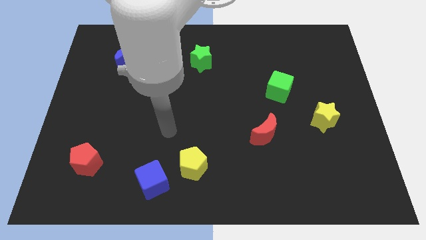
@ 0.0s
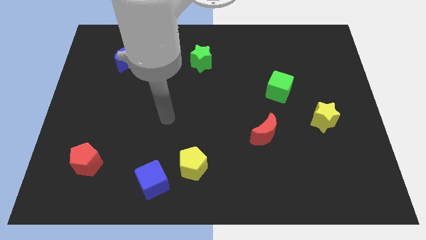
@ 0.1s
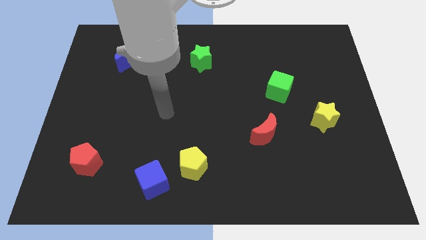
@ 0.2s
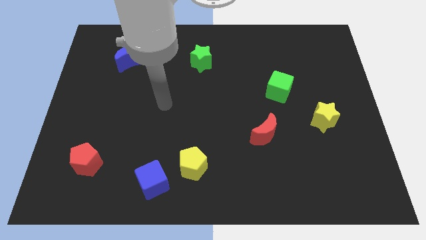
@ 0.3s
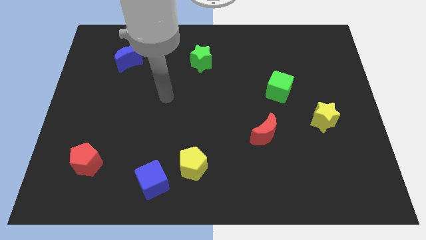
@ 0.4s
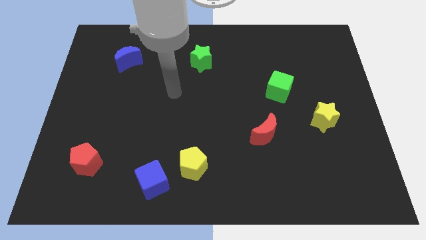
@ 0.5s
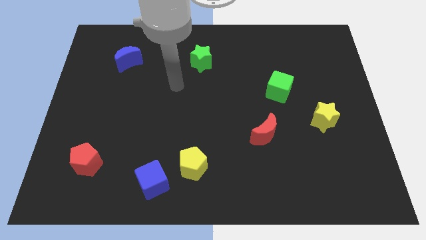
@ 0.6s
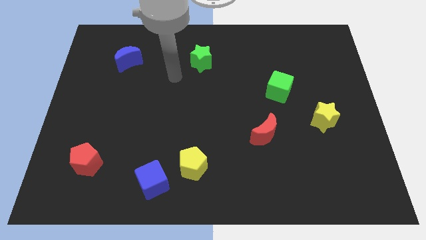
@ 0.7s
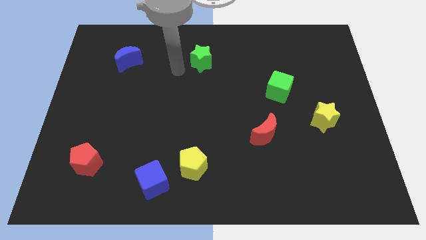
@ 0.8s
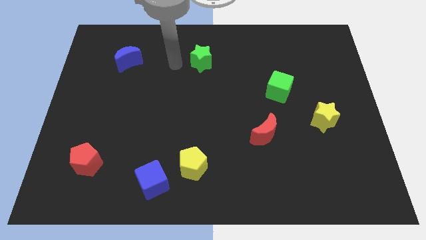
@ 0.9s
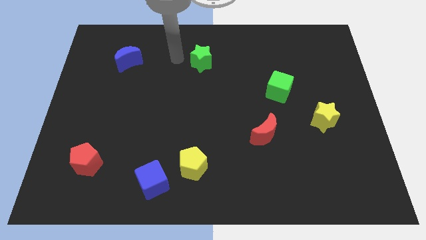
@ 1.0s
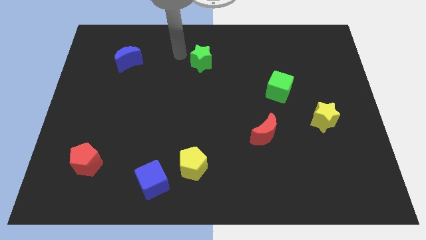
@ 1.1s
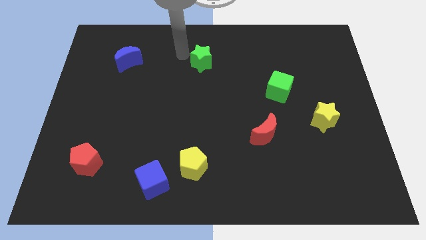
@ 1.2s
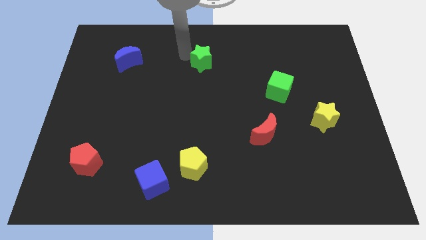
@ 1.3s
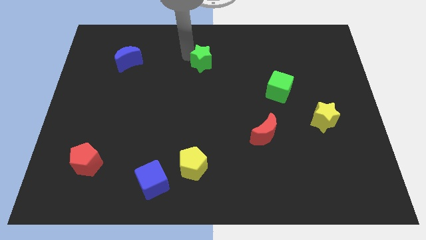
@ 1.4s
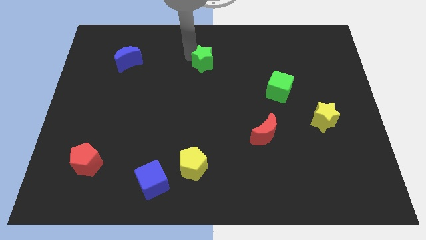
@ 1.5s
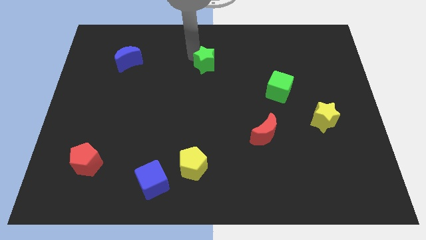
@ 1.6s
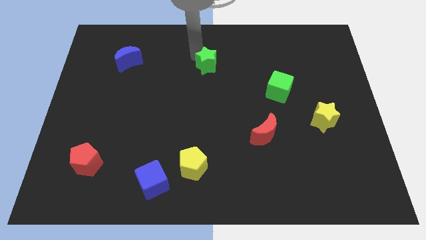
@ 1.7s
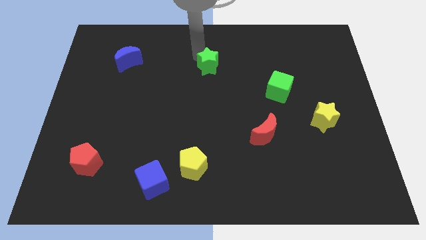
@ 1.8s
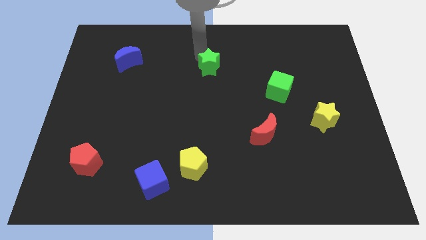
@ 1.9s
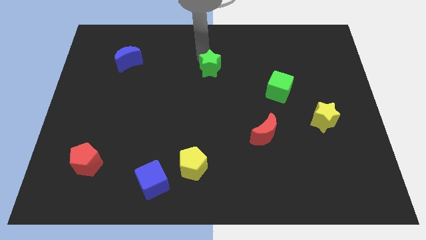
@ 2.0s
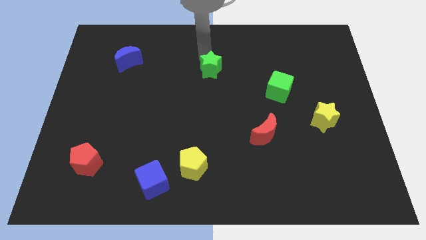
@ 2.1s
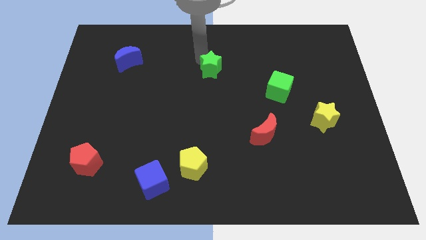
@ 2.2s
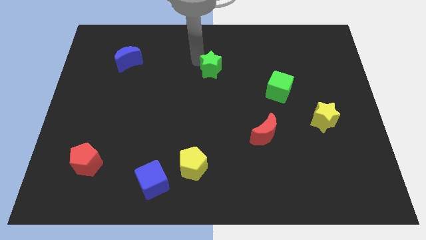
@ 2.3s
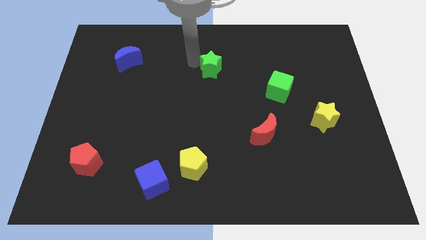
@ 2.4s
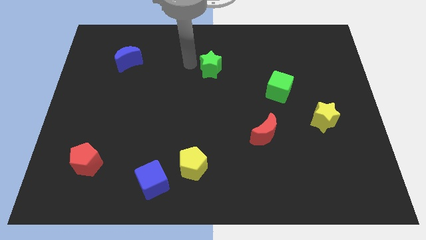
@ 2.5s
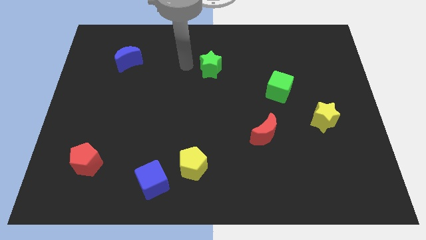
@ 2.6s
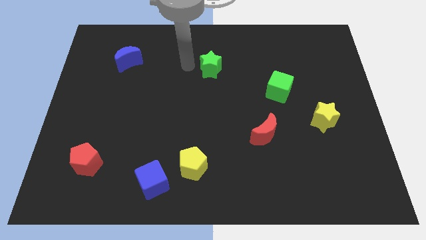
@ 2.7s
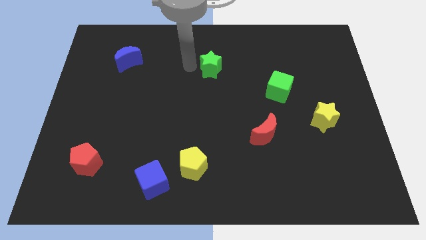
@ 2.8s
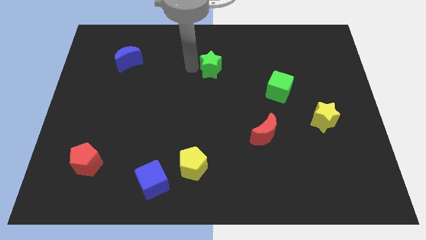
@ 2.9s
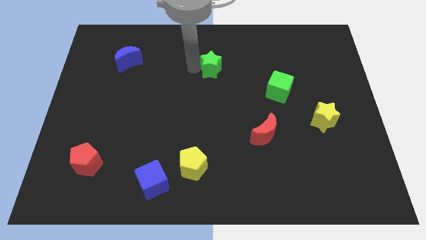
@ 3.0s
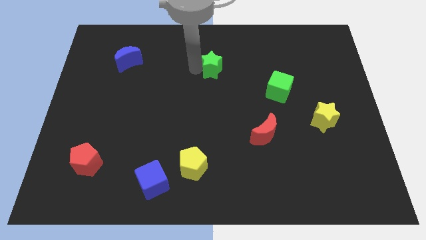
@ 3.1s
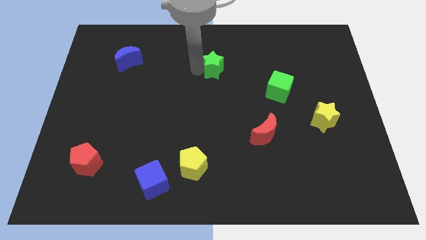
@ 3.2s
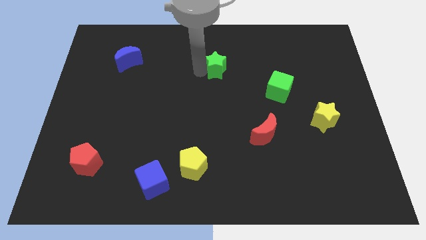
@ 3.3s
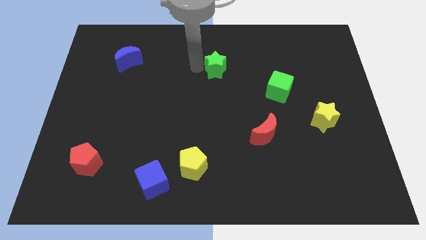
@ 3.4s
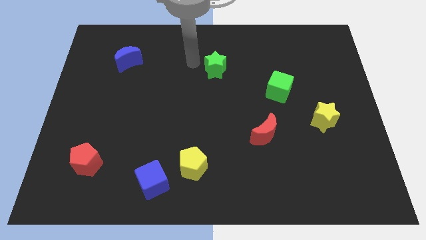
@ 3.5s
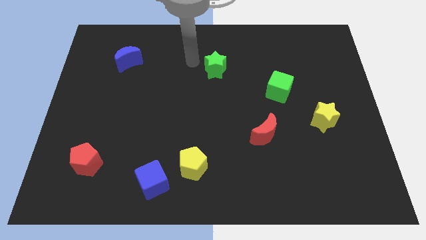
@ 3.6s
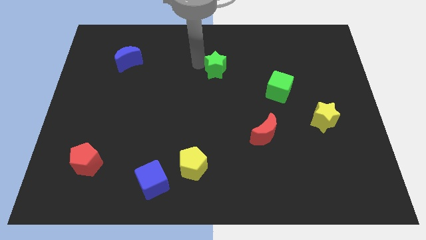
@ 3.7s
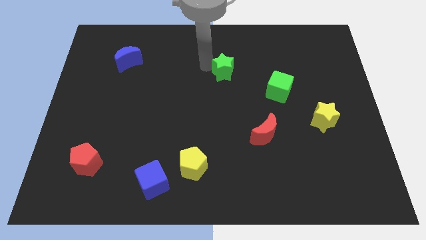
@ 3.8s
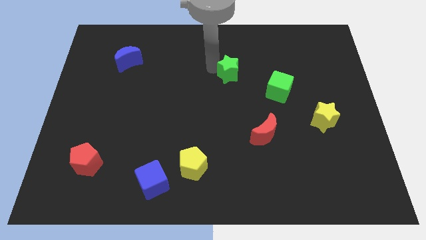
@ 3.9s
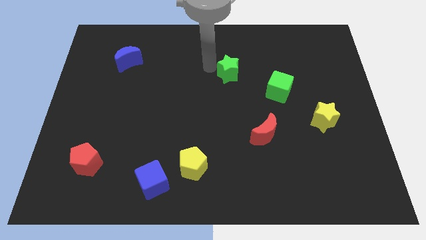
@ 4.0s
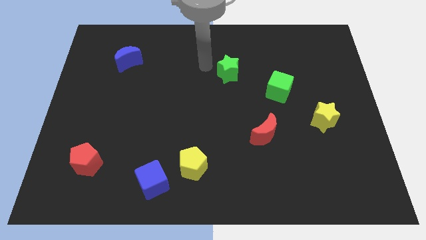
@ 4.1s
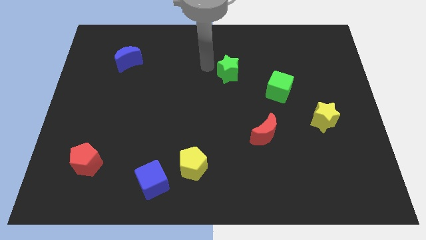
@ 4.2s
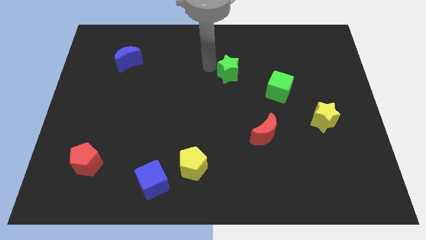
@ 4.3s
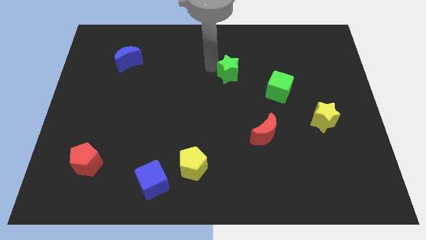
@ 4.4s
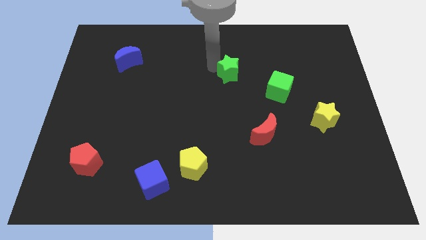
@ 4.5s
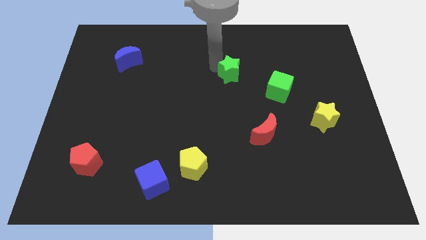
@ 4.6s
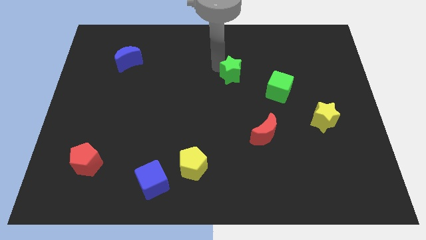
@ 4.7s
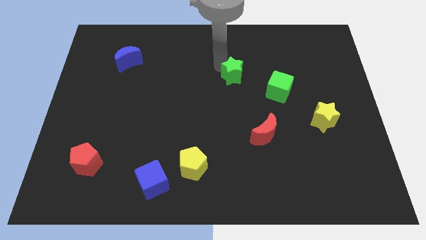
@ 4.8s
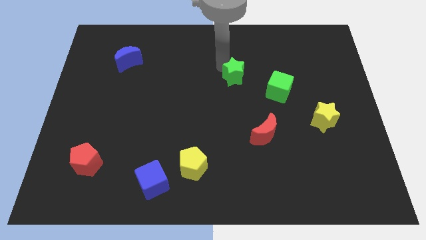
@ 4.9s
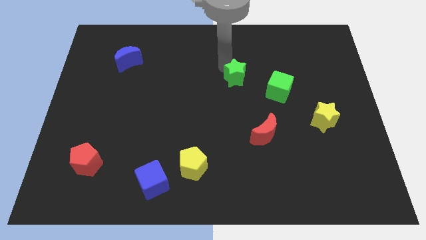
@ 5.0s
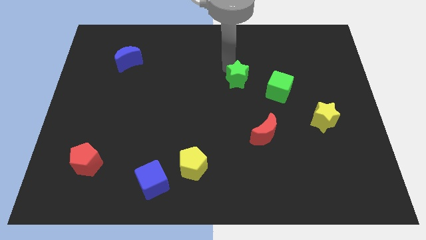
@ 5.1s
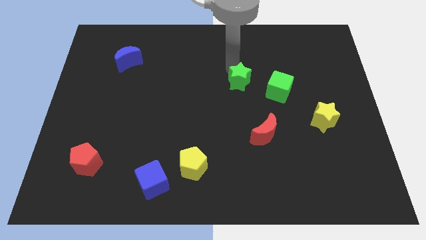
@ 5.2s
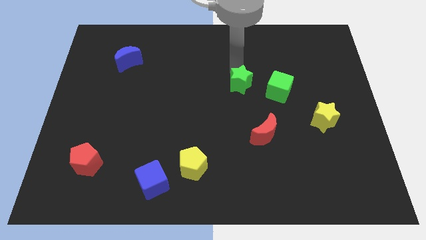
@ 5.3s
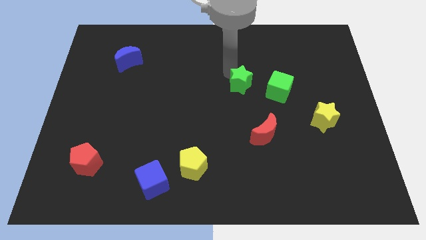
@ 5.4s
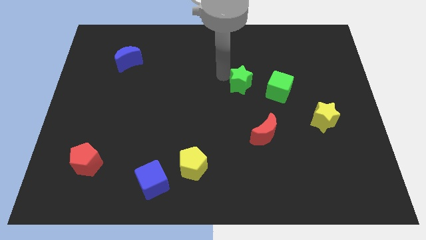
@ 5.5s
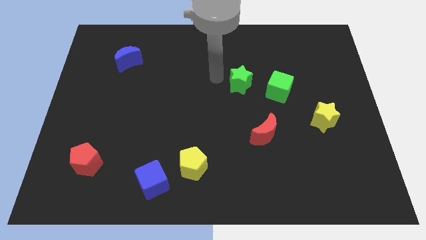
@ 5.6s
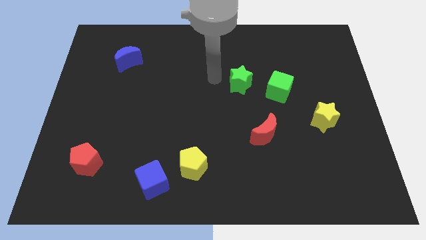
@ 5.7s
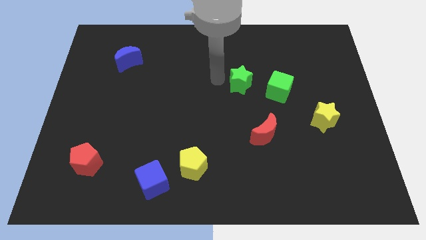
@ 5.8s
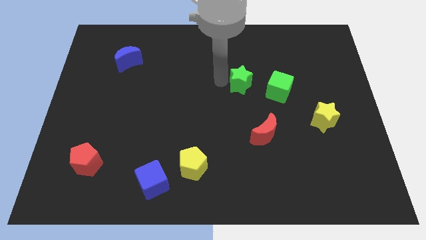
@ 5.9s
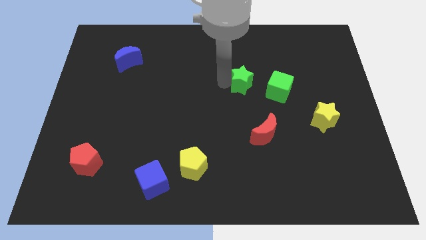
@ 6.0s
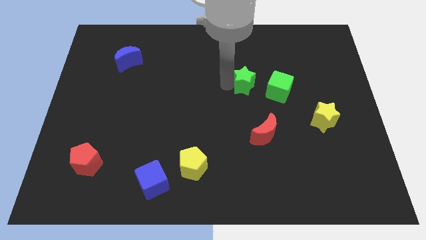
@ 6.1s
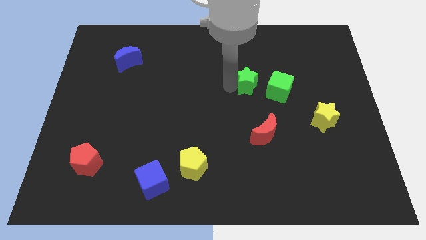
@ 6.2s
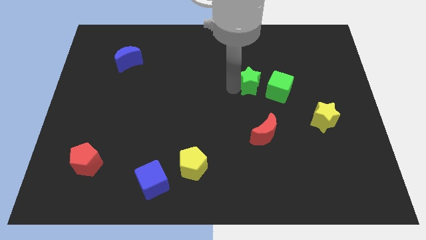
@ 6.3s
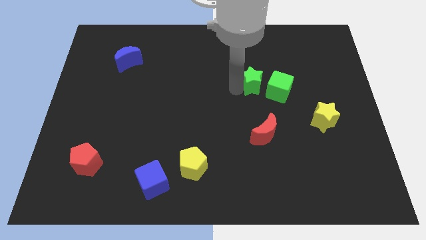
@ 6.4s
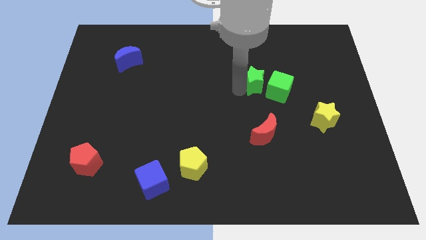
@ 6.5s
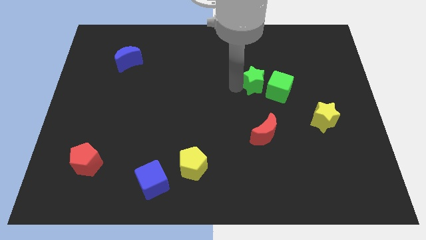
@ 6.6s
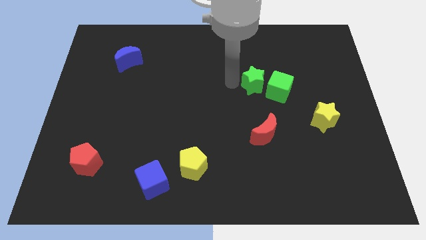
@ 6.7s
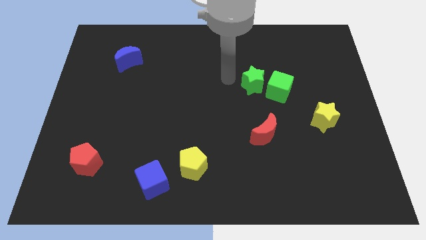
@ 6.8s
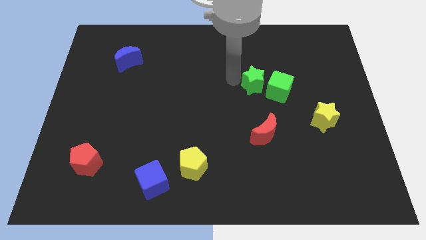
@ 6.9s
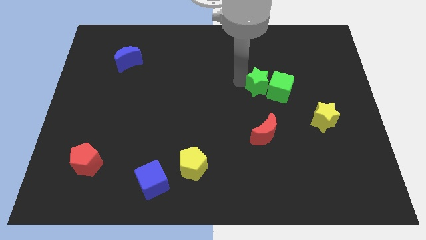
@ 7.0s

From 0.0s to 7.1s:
move the green star towards the green cube
